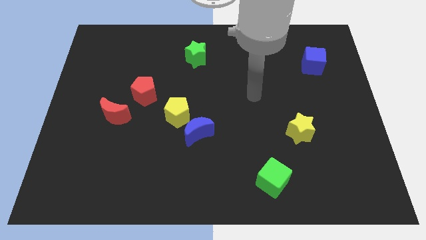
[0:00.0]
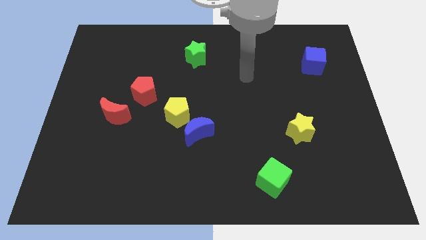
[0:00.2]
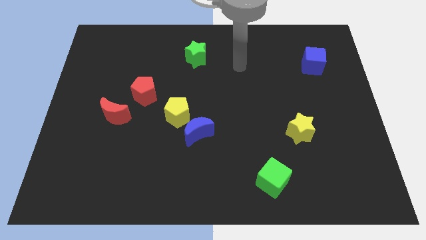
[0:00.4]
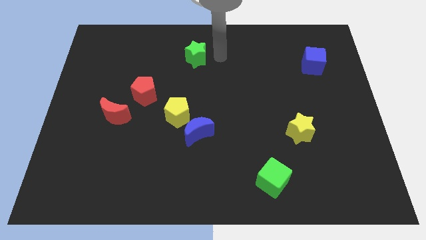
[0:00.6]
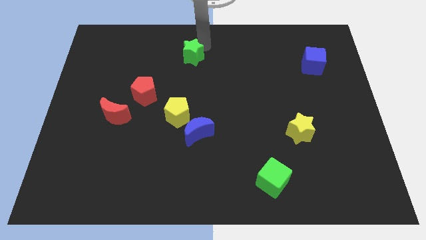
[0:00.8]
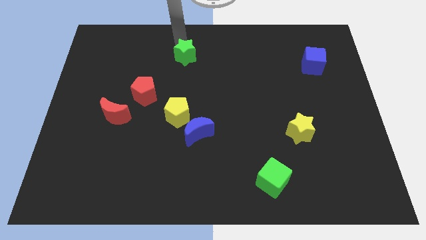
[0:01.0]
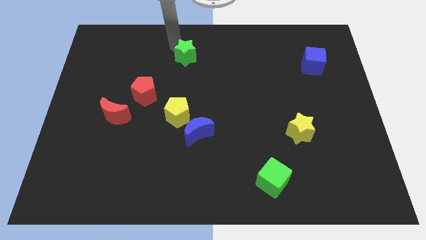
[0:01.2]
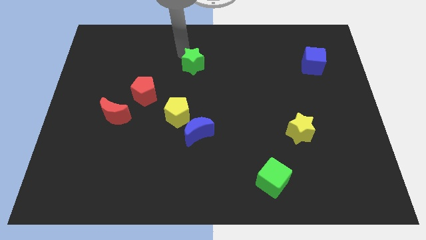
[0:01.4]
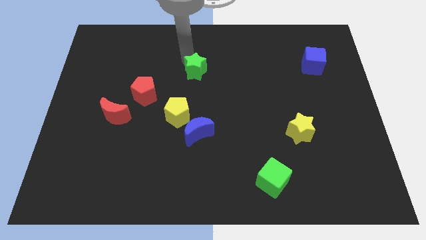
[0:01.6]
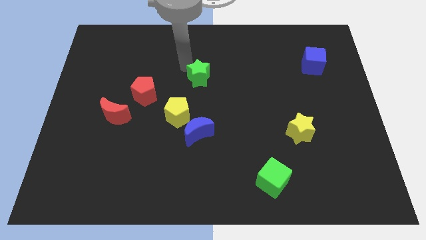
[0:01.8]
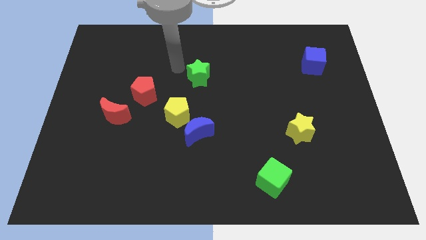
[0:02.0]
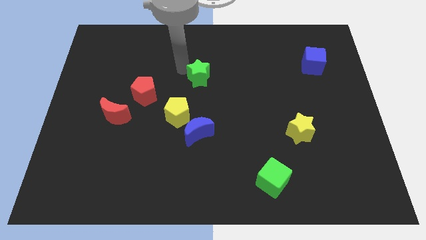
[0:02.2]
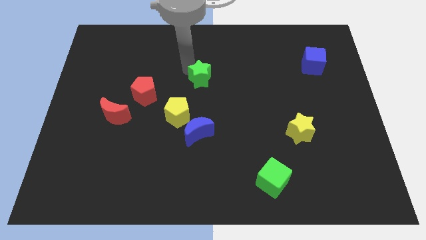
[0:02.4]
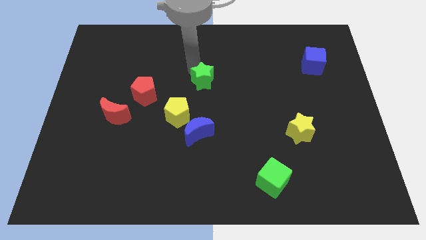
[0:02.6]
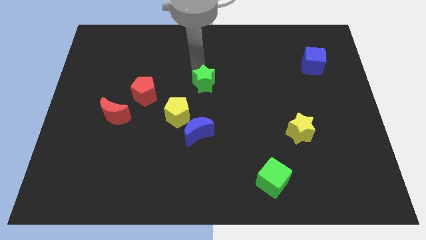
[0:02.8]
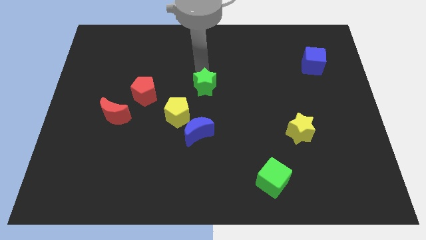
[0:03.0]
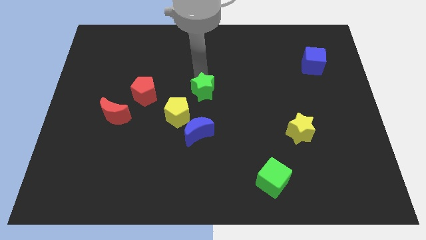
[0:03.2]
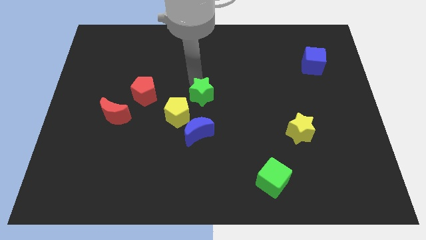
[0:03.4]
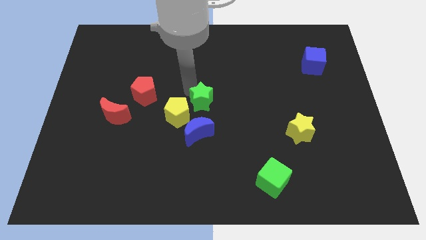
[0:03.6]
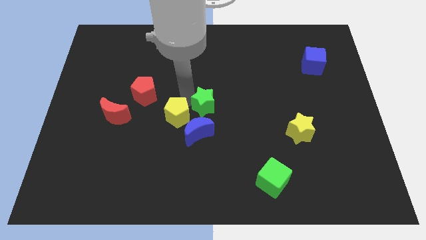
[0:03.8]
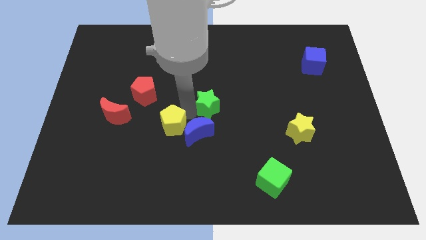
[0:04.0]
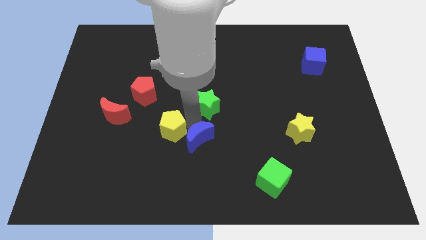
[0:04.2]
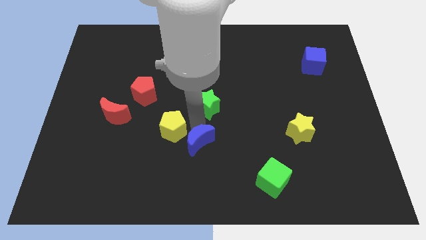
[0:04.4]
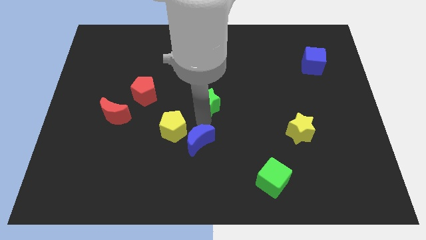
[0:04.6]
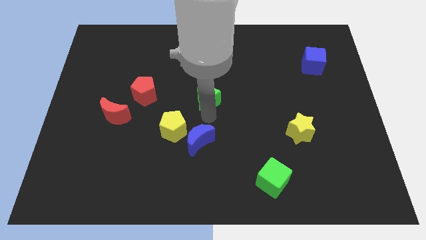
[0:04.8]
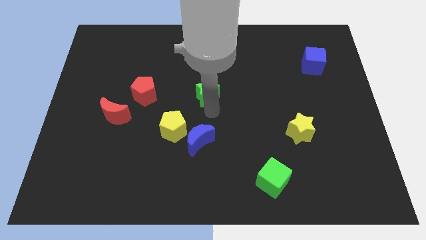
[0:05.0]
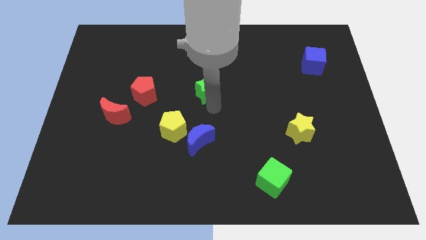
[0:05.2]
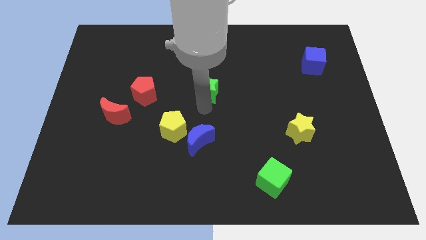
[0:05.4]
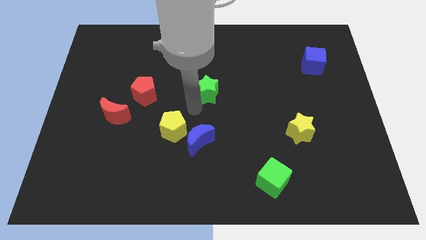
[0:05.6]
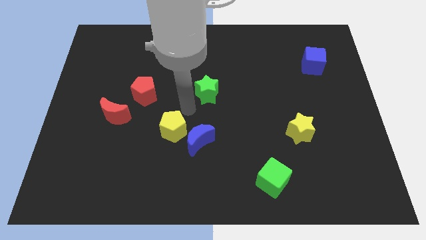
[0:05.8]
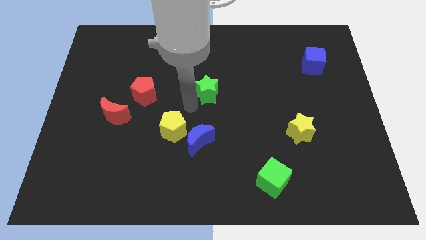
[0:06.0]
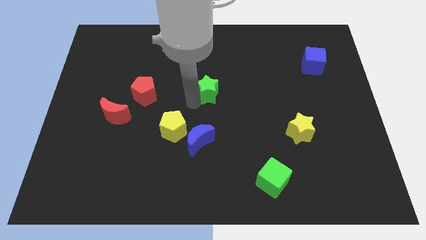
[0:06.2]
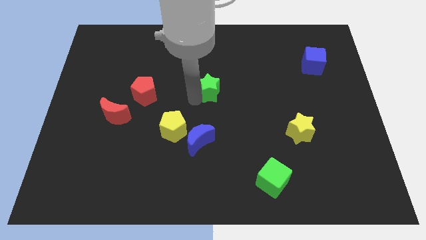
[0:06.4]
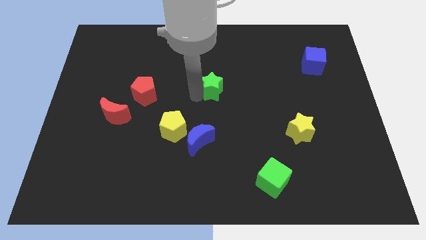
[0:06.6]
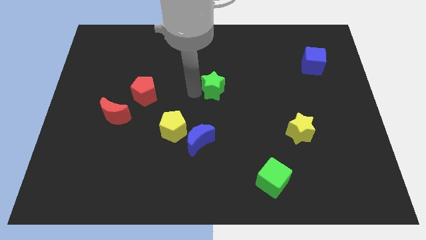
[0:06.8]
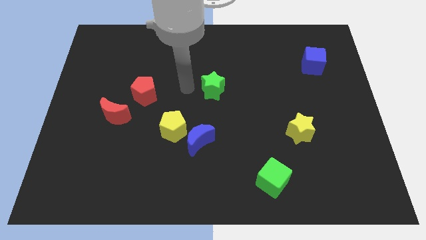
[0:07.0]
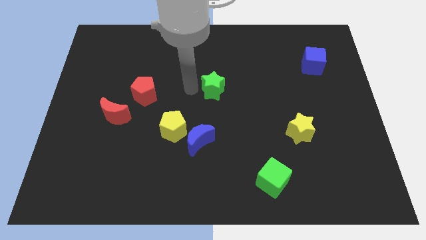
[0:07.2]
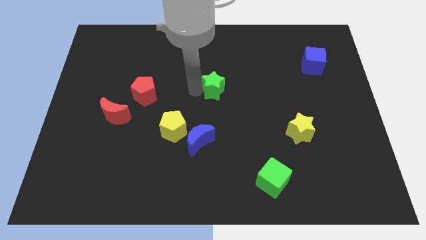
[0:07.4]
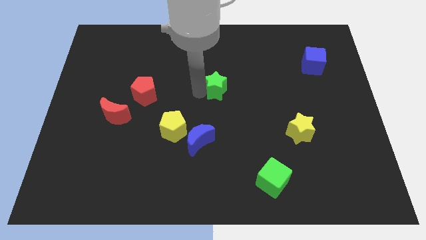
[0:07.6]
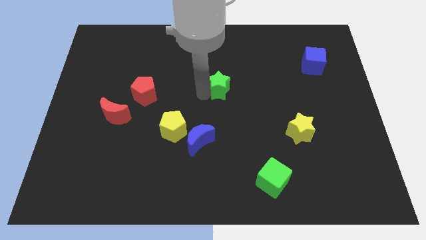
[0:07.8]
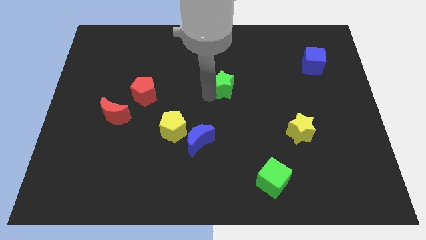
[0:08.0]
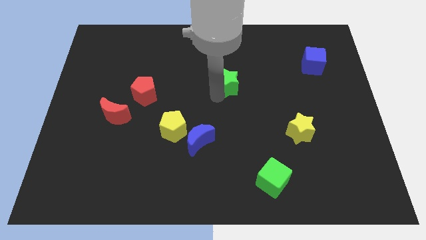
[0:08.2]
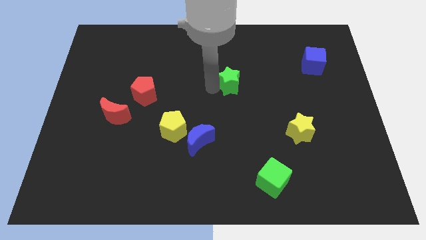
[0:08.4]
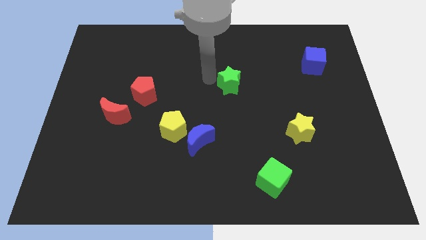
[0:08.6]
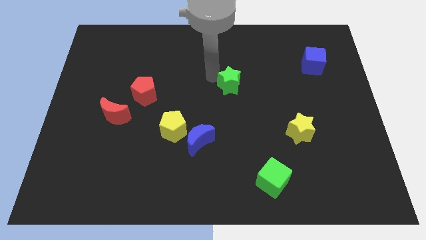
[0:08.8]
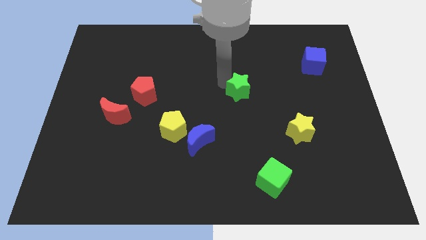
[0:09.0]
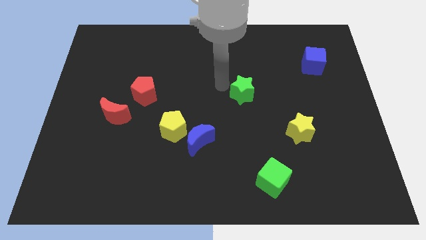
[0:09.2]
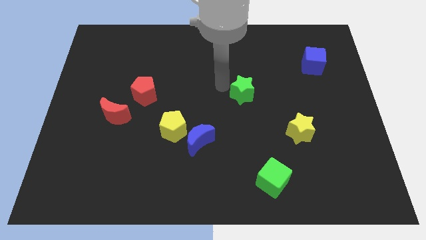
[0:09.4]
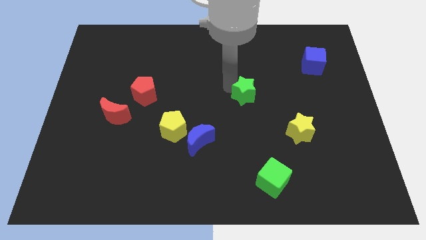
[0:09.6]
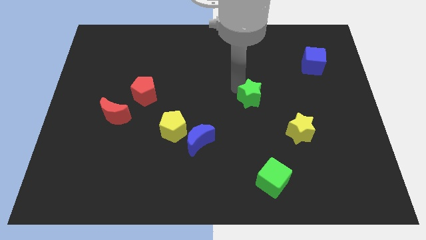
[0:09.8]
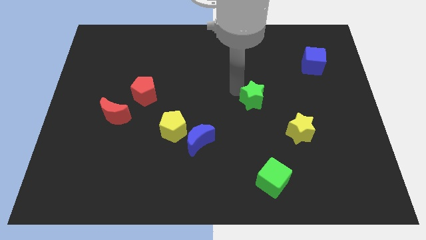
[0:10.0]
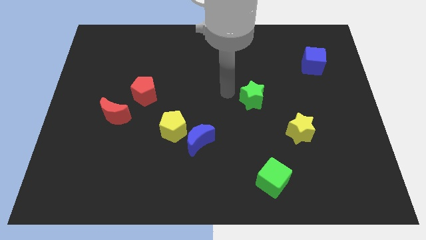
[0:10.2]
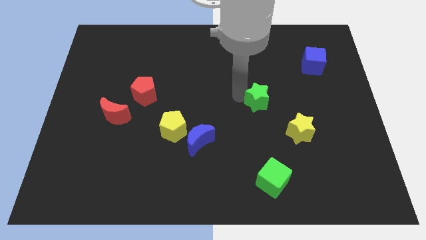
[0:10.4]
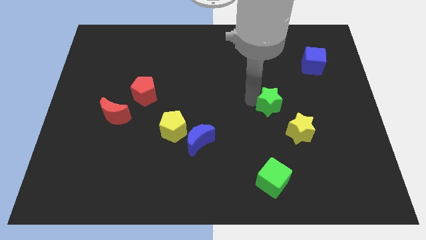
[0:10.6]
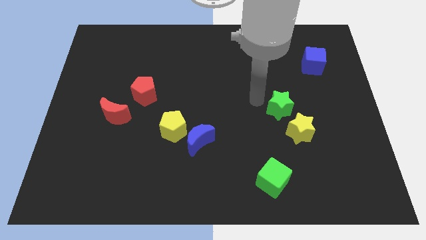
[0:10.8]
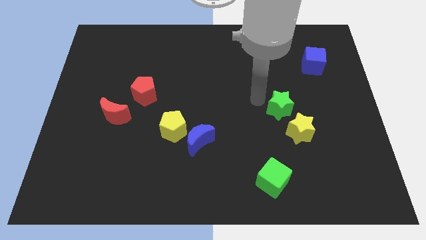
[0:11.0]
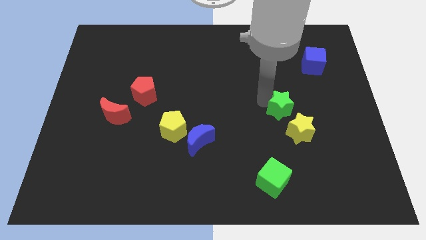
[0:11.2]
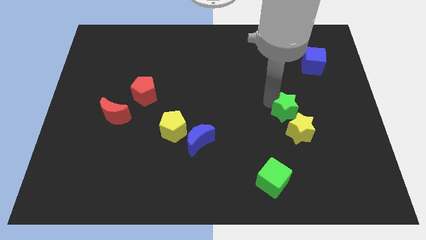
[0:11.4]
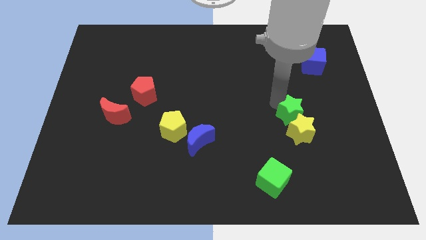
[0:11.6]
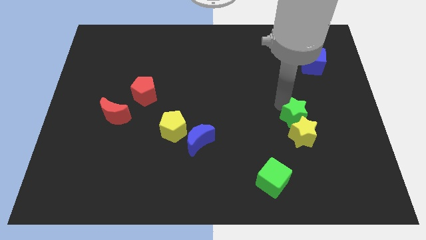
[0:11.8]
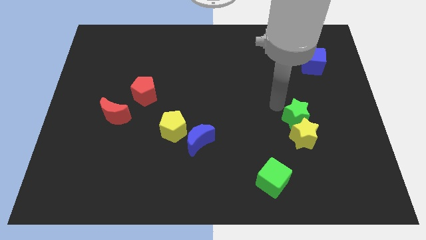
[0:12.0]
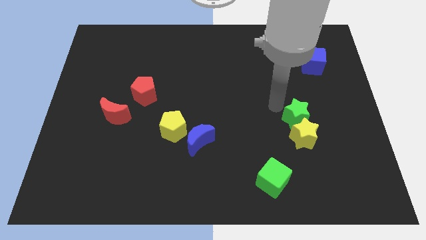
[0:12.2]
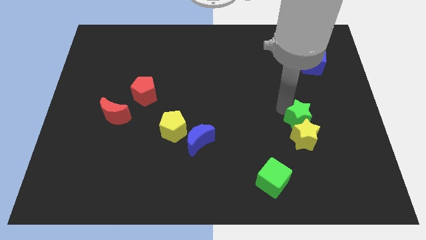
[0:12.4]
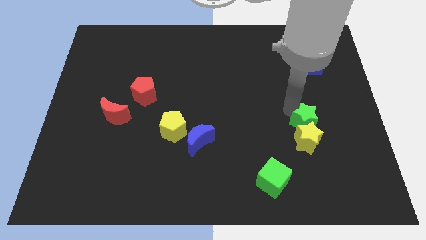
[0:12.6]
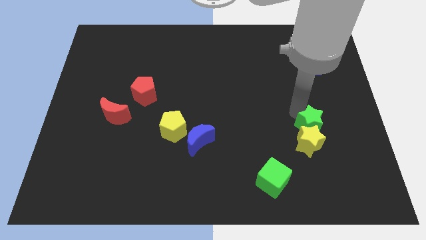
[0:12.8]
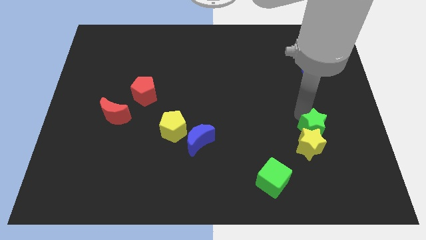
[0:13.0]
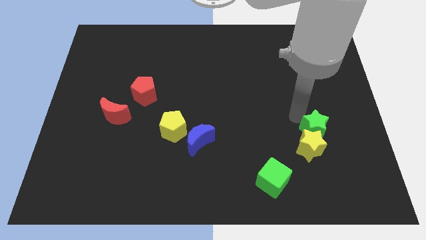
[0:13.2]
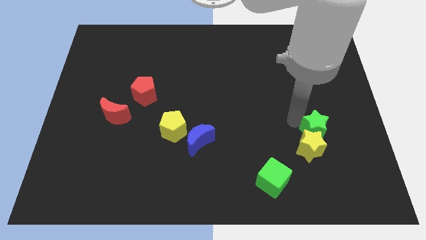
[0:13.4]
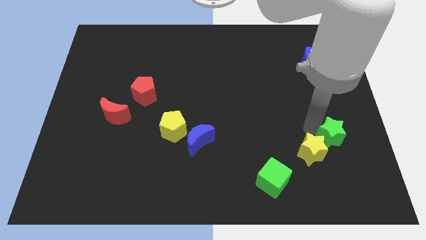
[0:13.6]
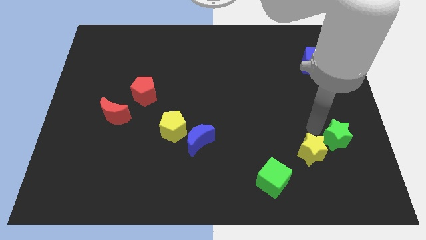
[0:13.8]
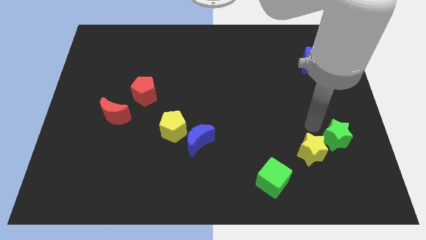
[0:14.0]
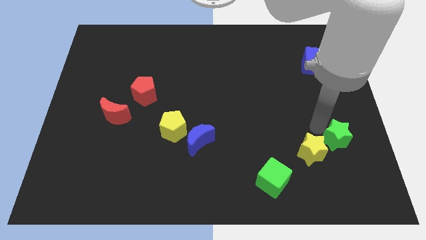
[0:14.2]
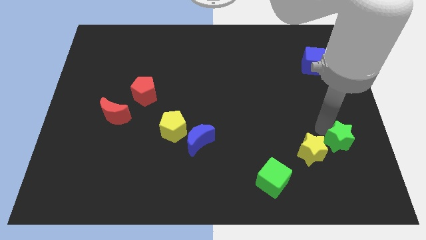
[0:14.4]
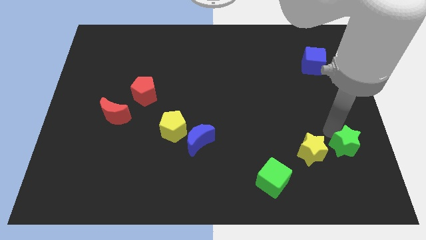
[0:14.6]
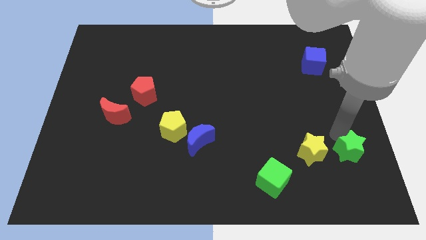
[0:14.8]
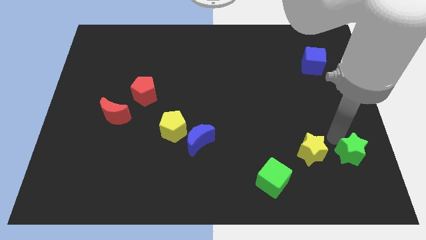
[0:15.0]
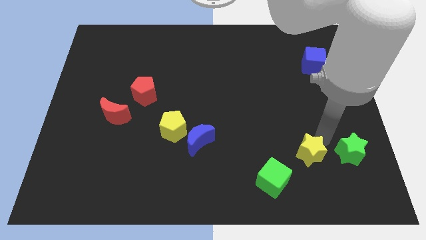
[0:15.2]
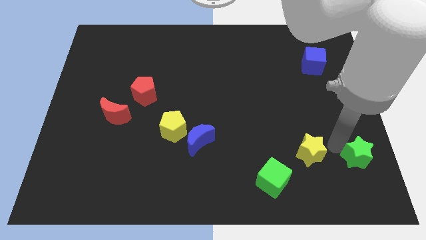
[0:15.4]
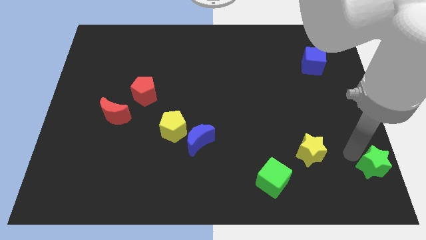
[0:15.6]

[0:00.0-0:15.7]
move the green star to the lower right corner
